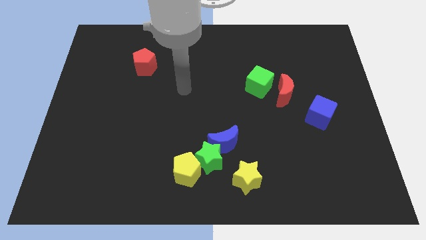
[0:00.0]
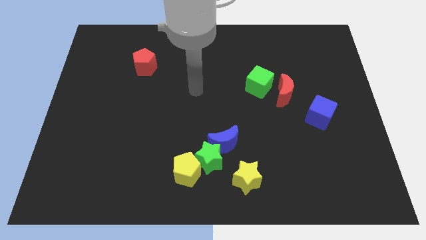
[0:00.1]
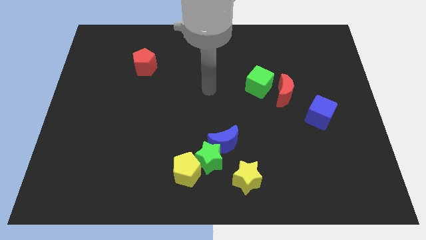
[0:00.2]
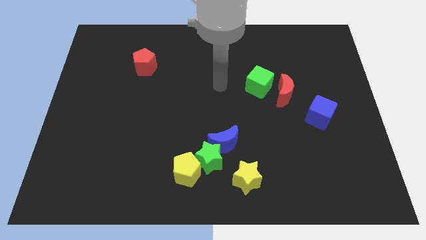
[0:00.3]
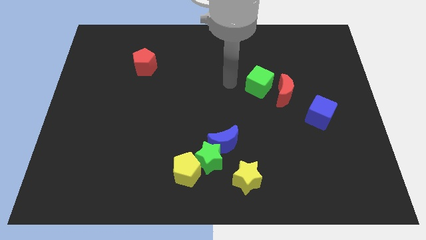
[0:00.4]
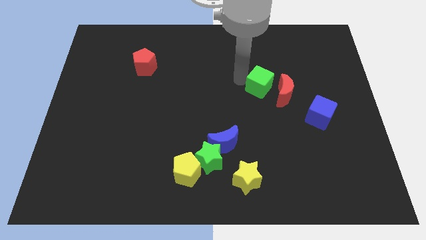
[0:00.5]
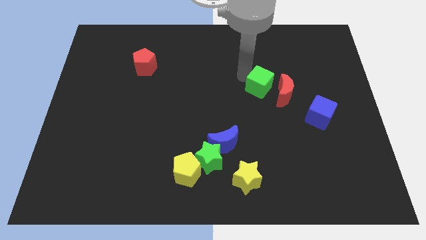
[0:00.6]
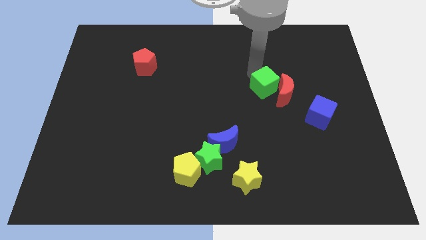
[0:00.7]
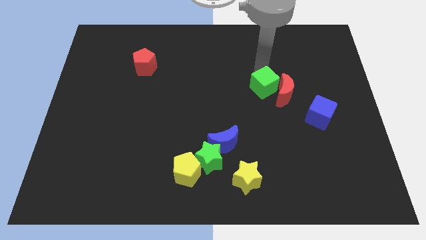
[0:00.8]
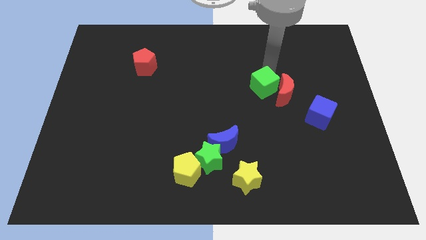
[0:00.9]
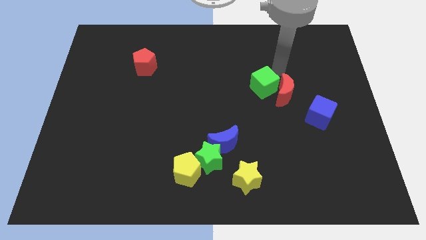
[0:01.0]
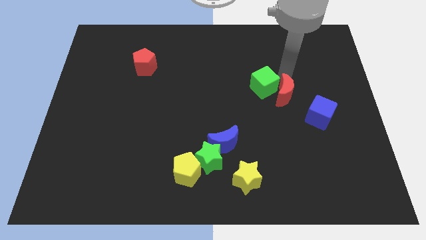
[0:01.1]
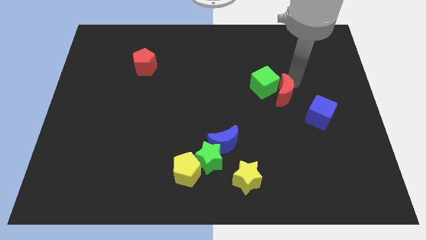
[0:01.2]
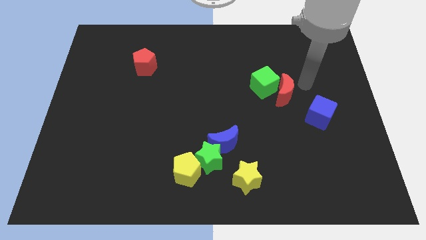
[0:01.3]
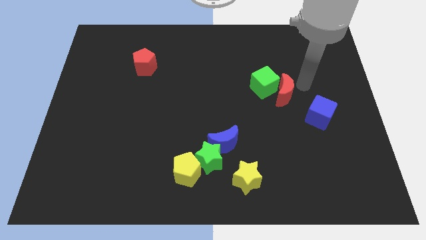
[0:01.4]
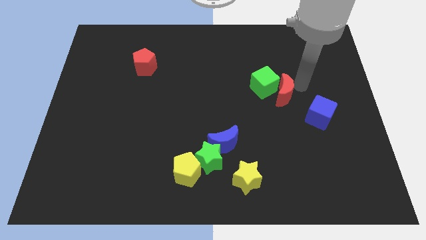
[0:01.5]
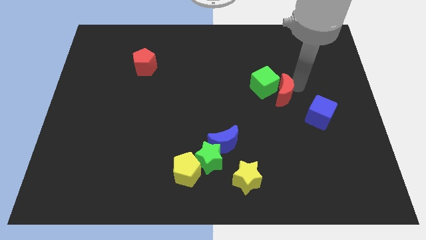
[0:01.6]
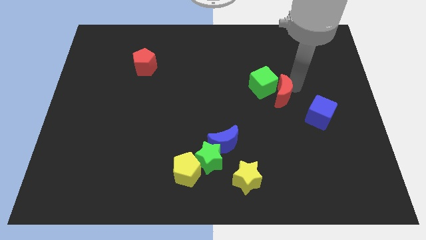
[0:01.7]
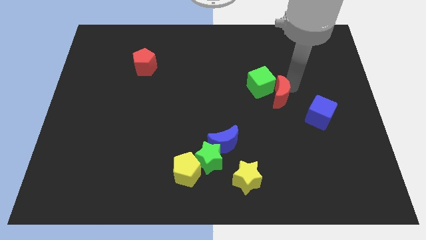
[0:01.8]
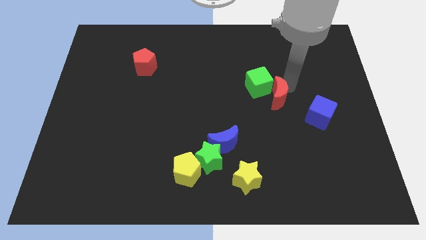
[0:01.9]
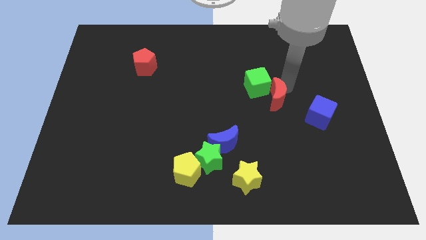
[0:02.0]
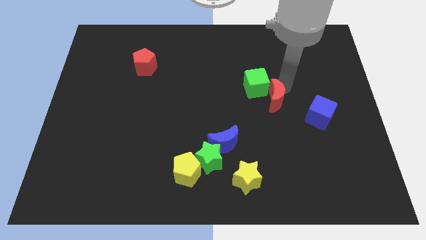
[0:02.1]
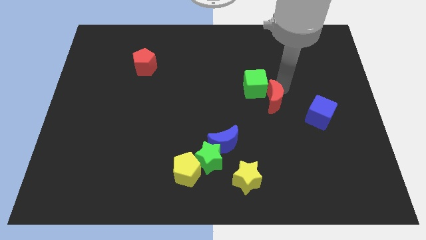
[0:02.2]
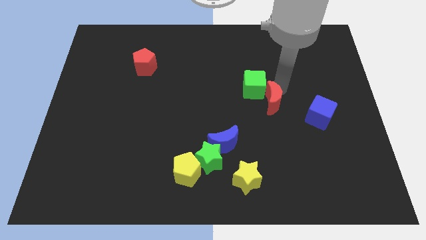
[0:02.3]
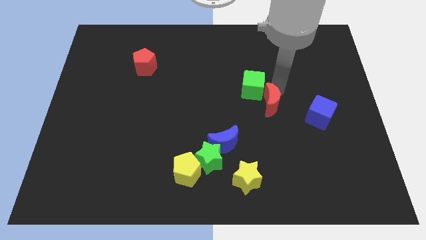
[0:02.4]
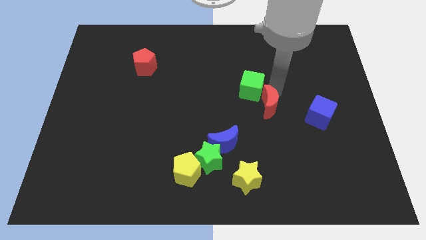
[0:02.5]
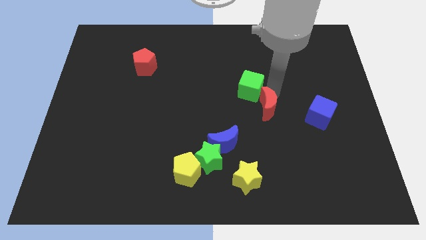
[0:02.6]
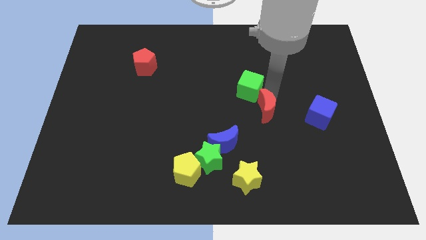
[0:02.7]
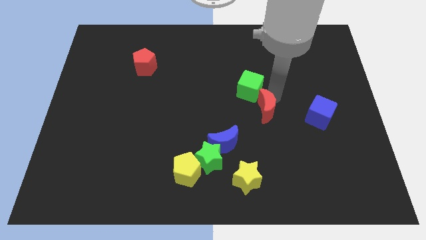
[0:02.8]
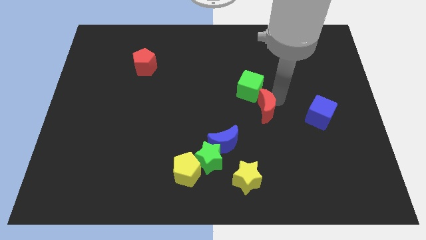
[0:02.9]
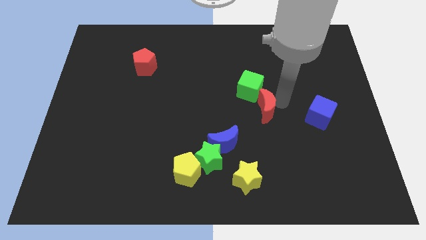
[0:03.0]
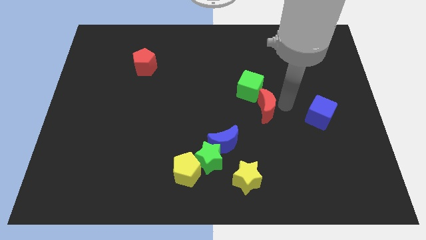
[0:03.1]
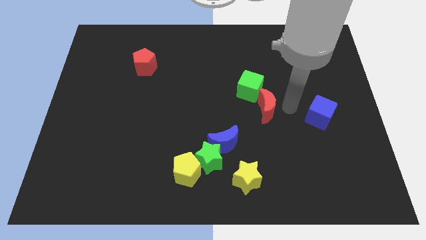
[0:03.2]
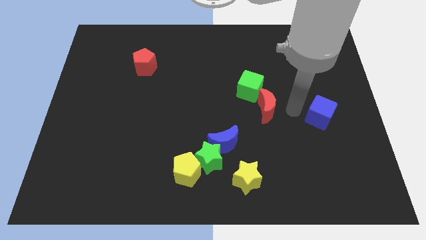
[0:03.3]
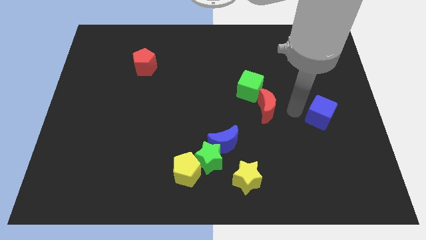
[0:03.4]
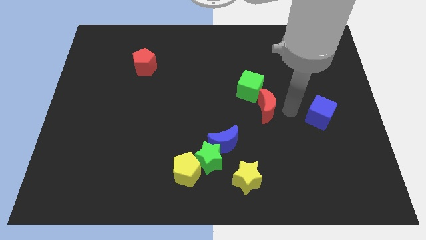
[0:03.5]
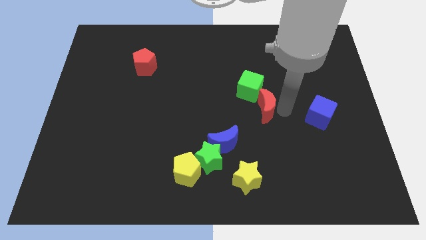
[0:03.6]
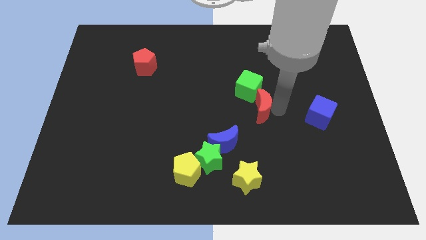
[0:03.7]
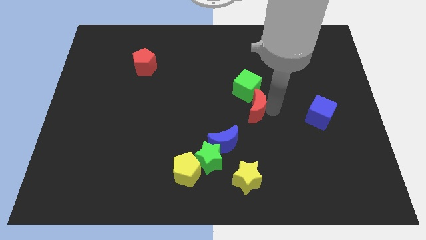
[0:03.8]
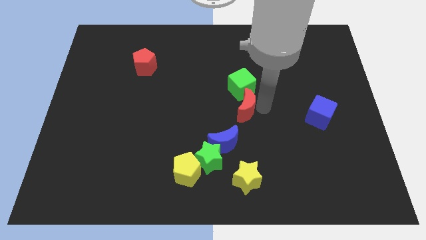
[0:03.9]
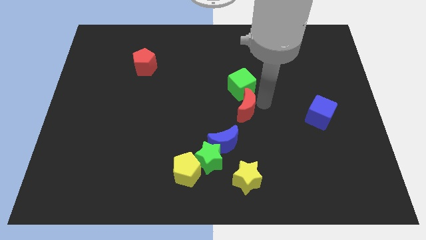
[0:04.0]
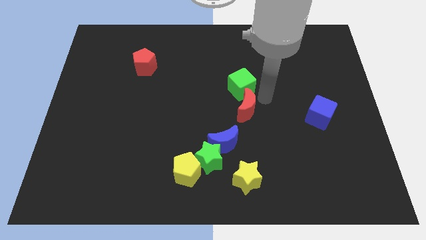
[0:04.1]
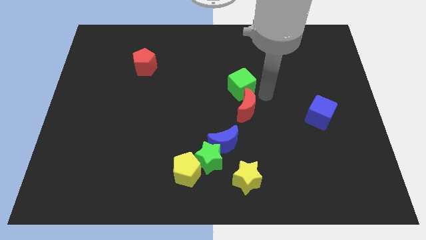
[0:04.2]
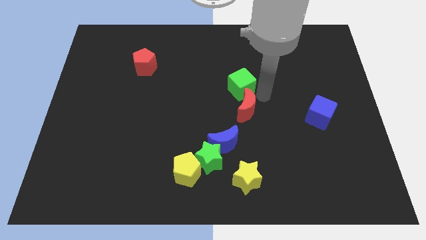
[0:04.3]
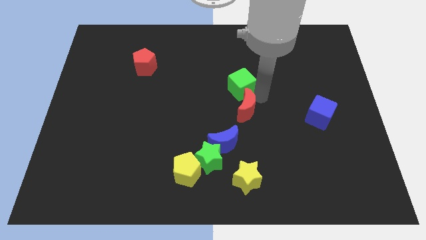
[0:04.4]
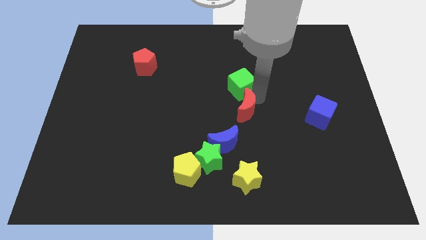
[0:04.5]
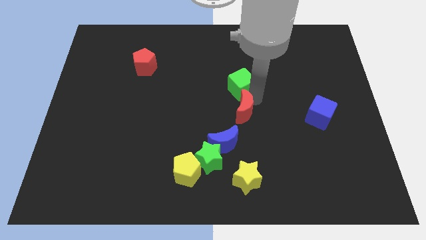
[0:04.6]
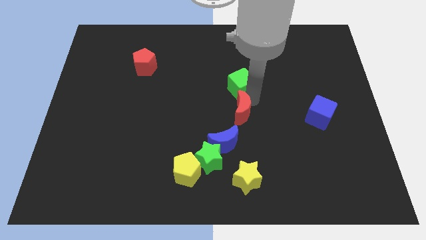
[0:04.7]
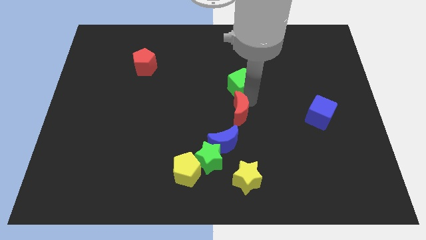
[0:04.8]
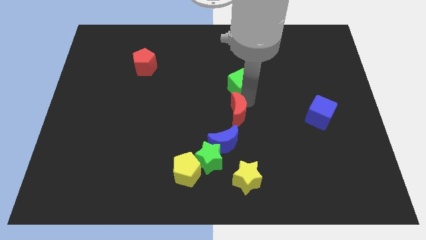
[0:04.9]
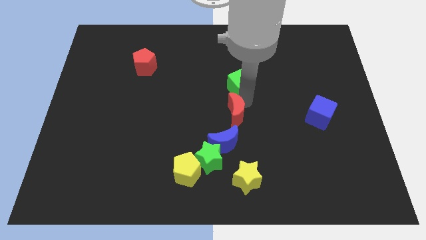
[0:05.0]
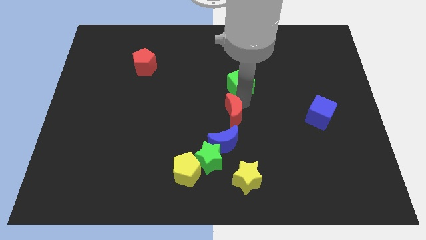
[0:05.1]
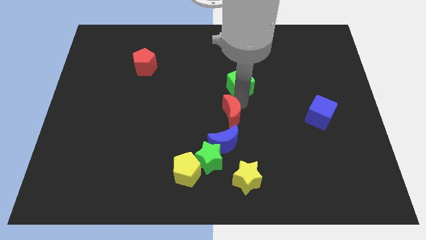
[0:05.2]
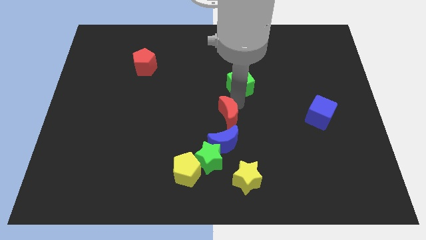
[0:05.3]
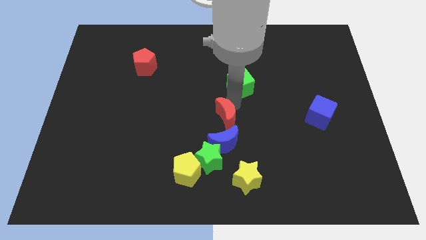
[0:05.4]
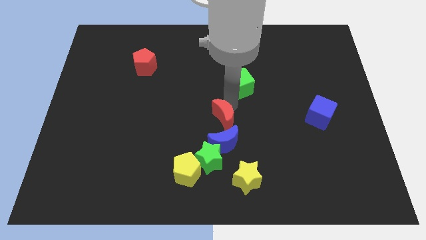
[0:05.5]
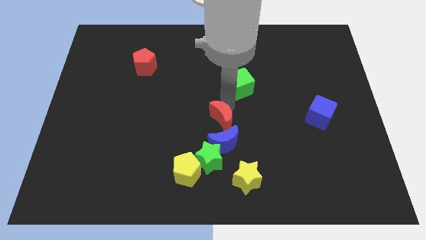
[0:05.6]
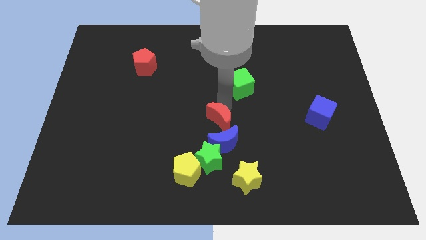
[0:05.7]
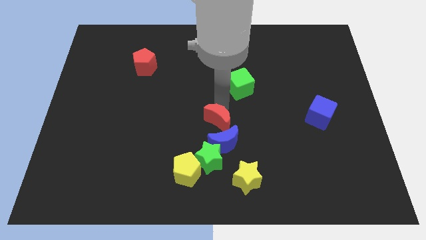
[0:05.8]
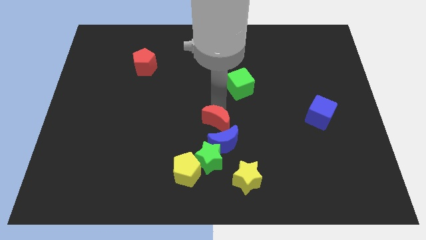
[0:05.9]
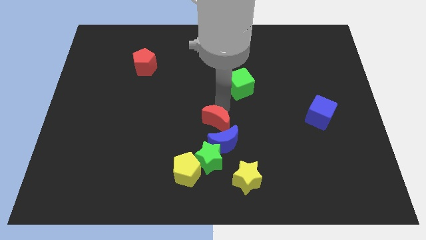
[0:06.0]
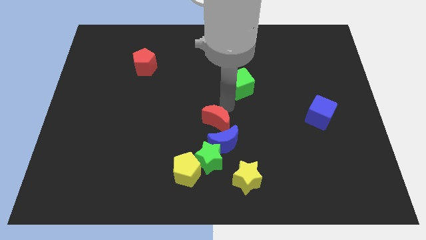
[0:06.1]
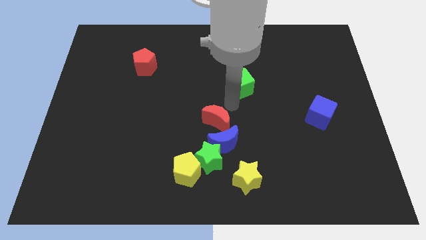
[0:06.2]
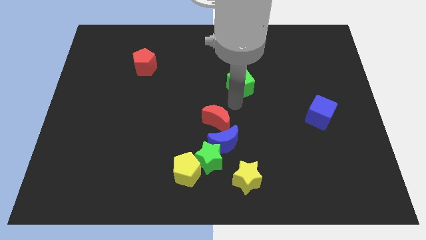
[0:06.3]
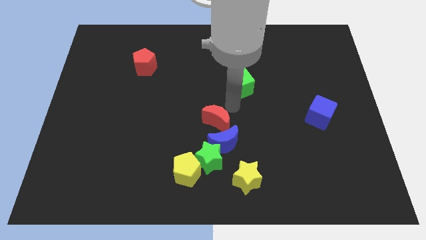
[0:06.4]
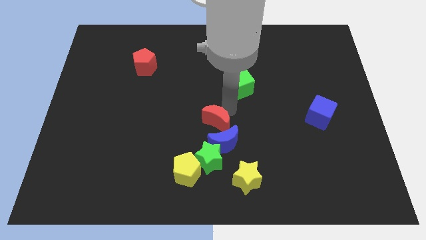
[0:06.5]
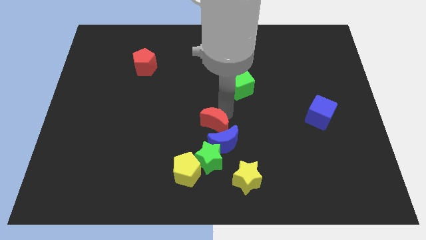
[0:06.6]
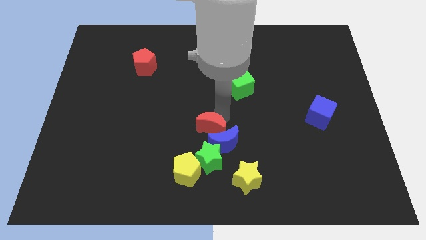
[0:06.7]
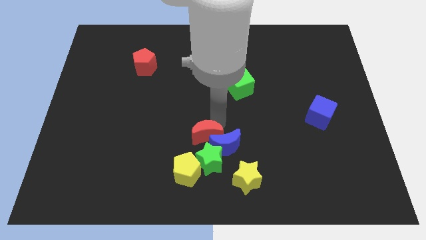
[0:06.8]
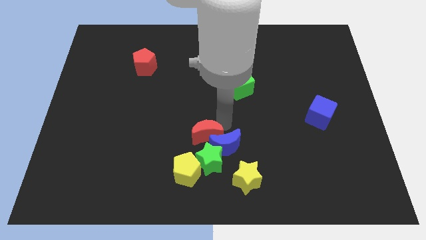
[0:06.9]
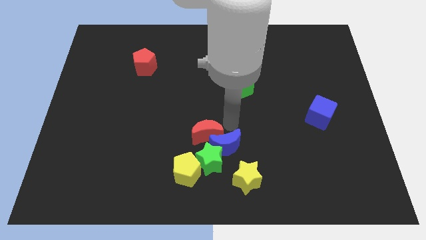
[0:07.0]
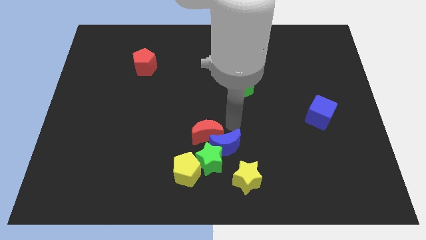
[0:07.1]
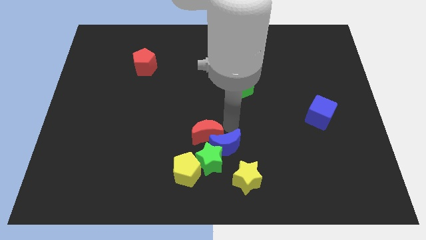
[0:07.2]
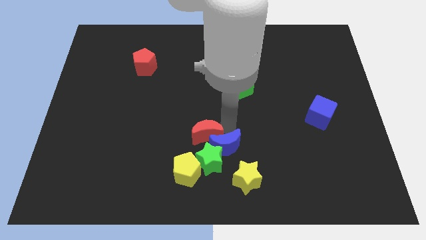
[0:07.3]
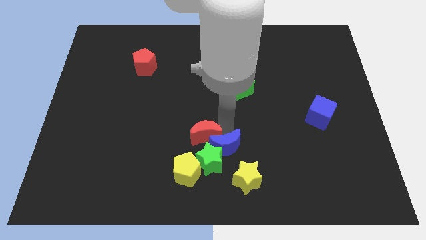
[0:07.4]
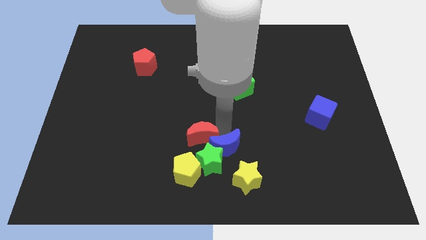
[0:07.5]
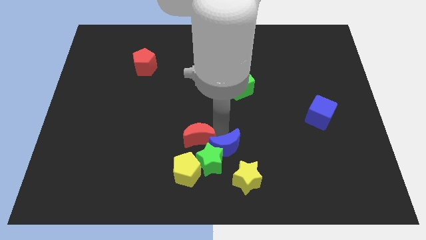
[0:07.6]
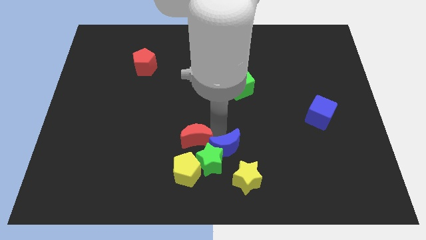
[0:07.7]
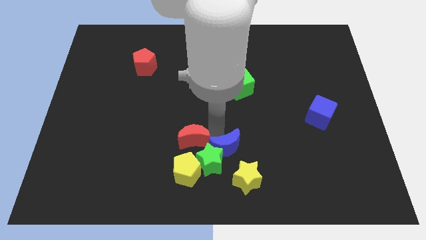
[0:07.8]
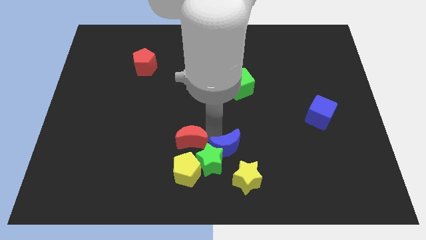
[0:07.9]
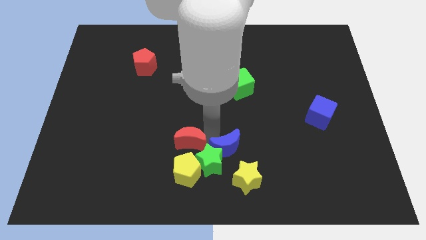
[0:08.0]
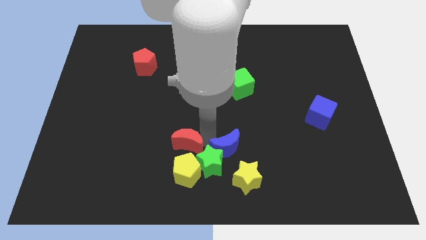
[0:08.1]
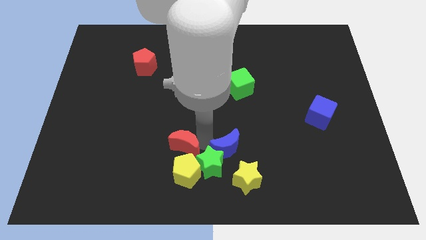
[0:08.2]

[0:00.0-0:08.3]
move the red moon to the left of the green star
